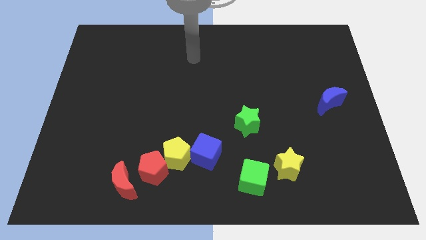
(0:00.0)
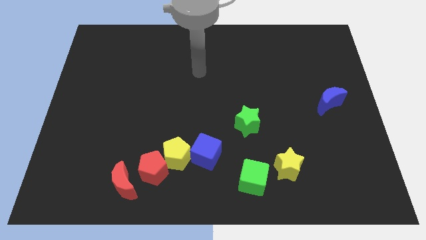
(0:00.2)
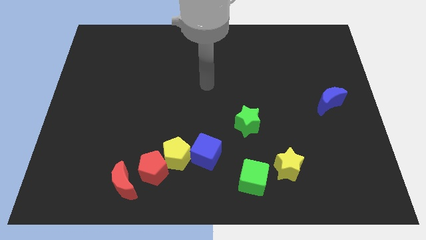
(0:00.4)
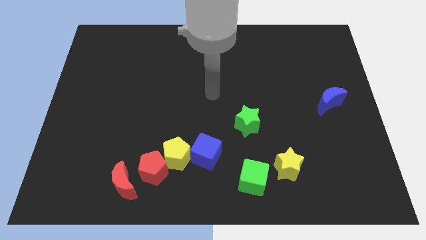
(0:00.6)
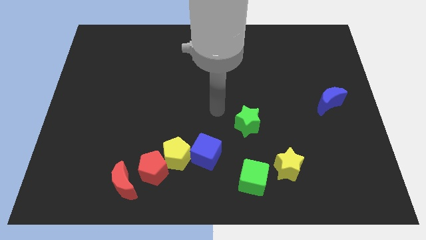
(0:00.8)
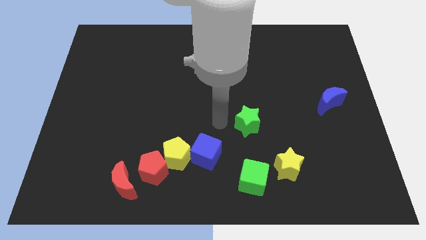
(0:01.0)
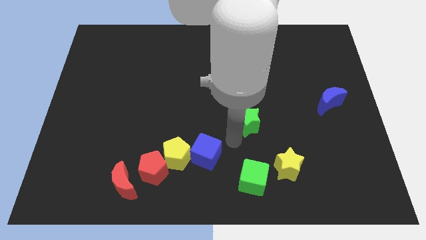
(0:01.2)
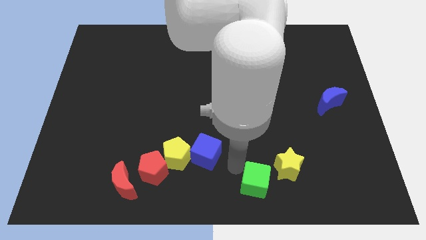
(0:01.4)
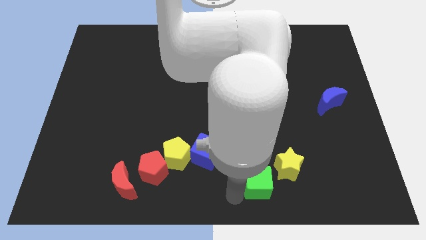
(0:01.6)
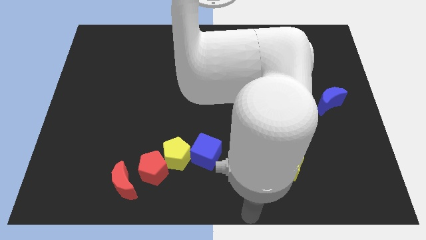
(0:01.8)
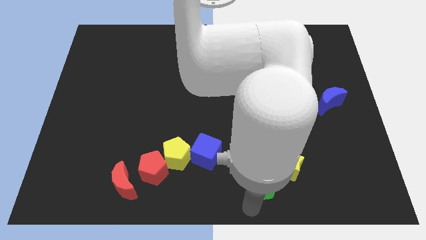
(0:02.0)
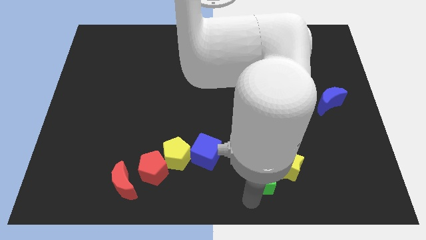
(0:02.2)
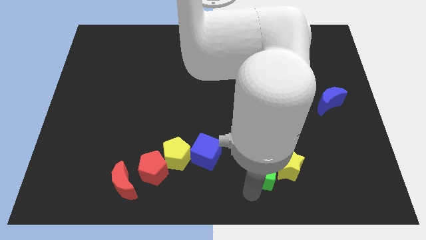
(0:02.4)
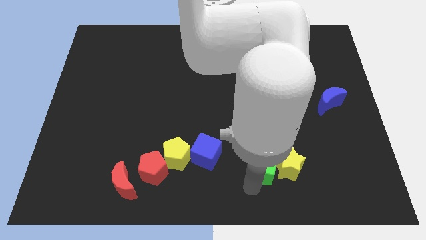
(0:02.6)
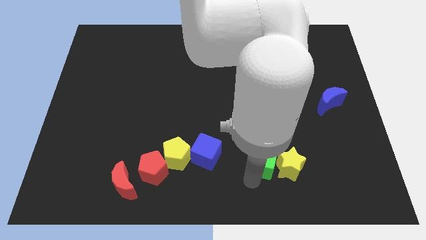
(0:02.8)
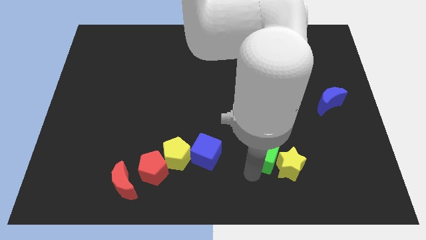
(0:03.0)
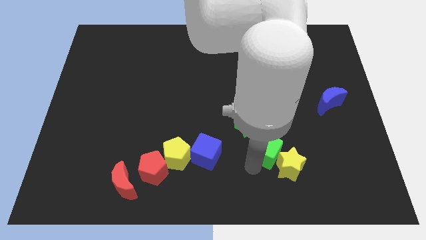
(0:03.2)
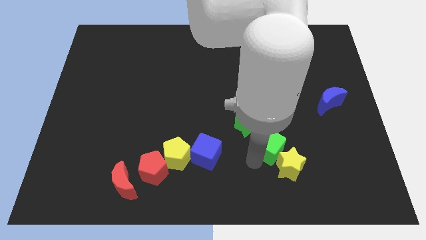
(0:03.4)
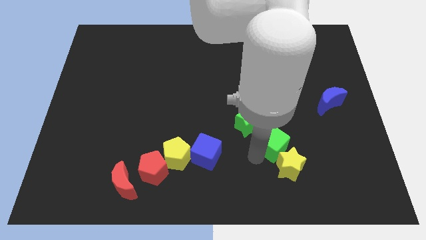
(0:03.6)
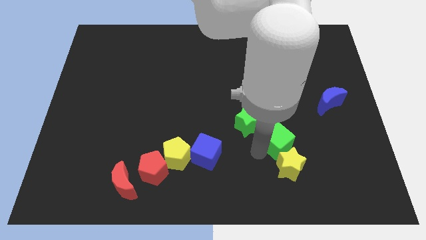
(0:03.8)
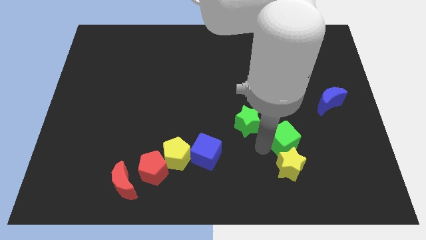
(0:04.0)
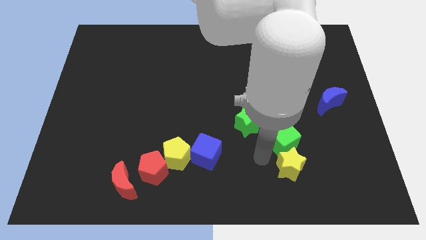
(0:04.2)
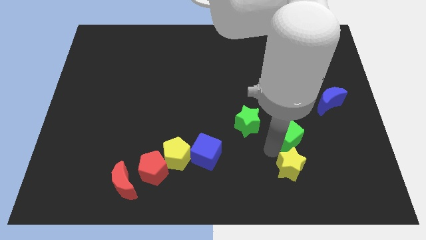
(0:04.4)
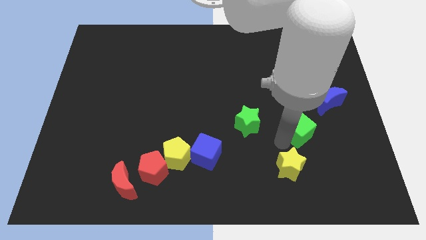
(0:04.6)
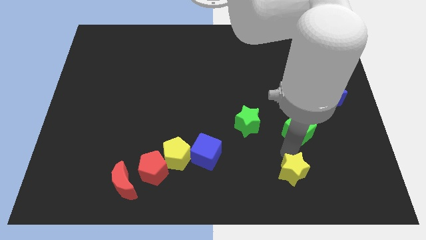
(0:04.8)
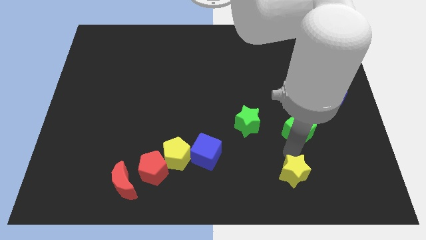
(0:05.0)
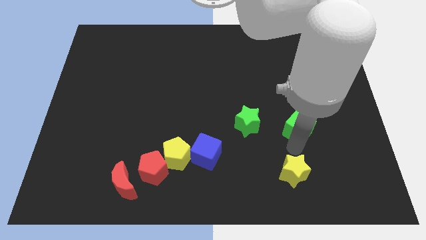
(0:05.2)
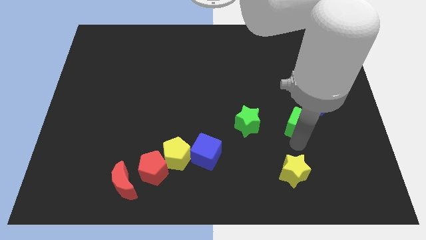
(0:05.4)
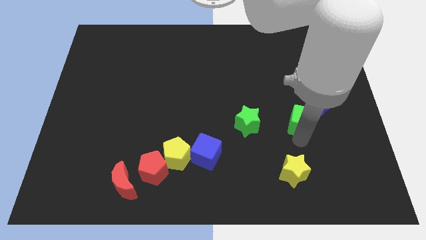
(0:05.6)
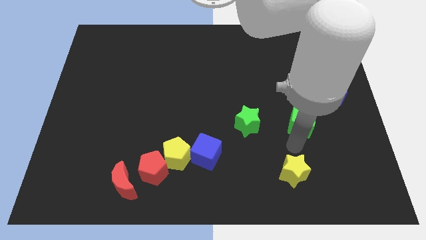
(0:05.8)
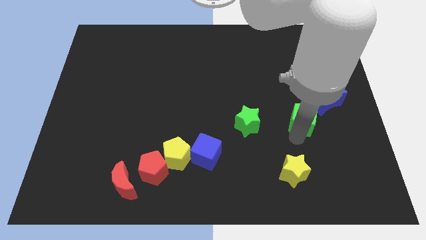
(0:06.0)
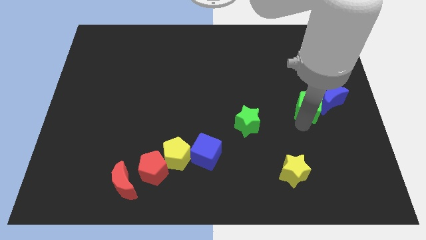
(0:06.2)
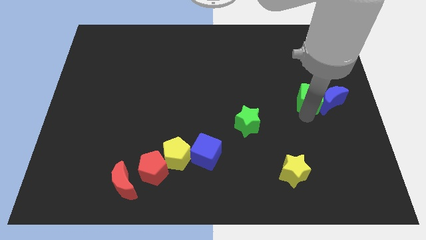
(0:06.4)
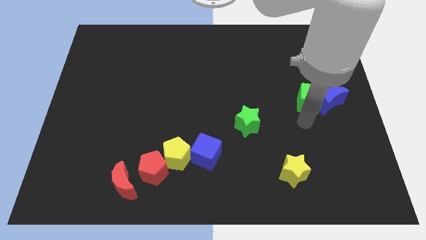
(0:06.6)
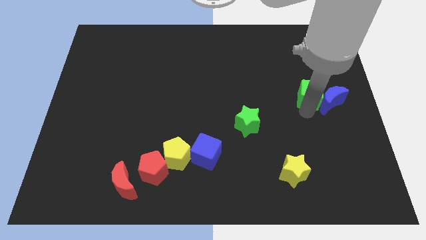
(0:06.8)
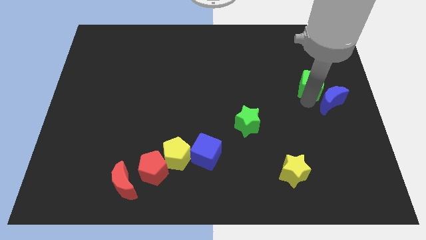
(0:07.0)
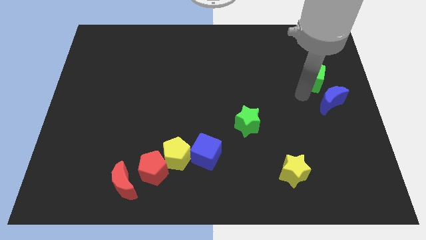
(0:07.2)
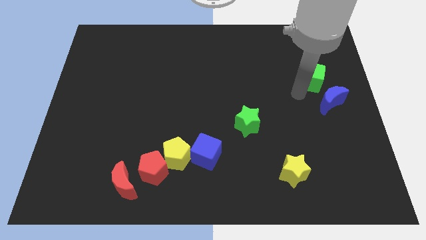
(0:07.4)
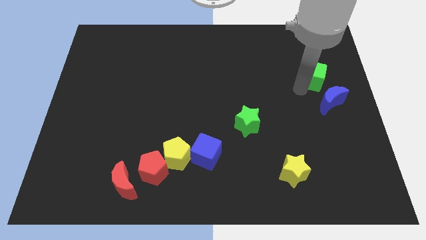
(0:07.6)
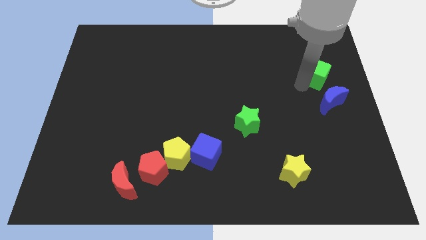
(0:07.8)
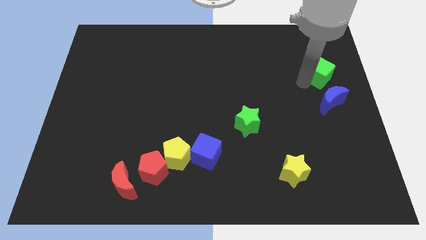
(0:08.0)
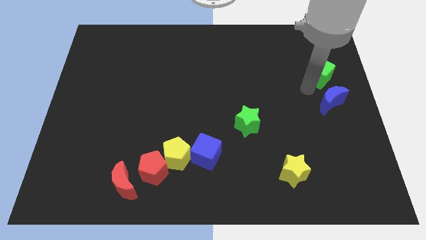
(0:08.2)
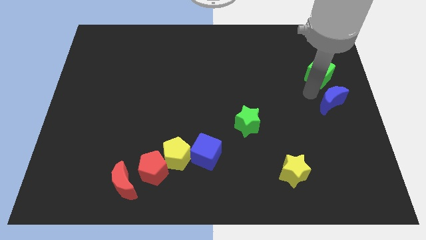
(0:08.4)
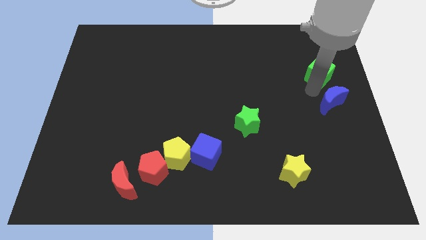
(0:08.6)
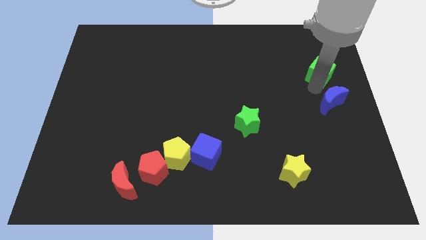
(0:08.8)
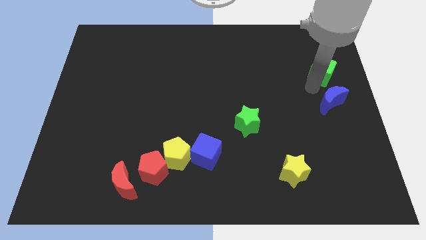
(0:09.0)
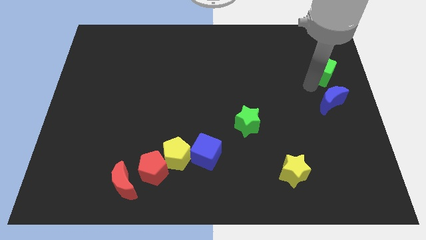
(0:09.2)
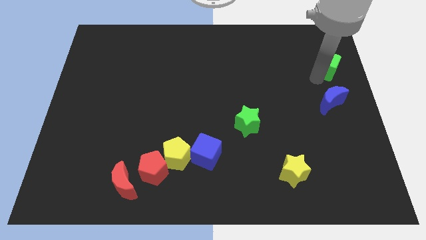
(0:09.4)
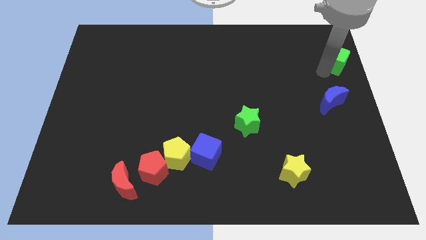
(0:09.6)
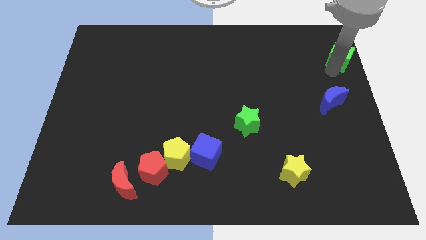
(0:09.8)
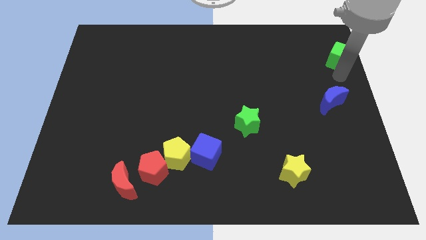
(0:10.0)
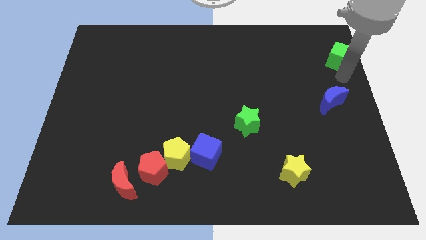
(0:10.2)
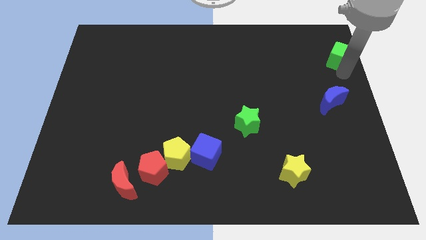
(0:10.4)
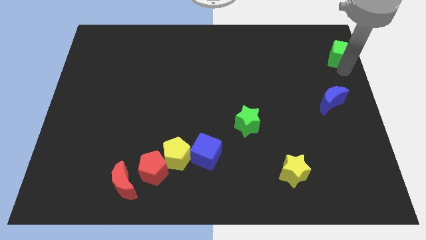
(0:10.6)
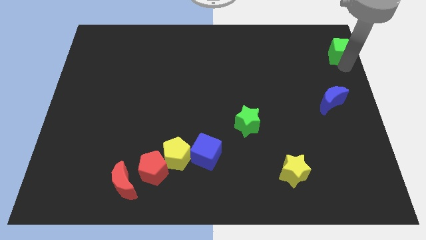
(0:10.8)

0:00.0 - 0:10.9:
slide the green cube to the top right

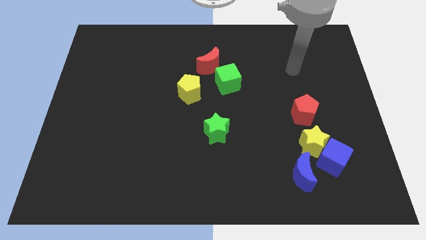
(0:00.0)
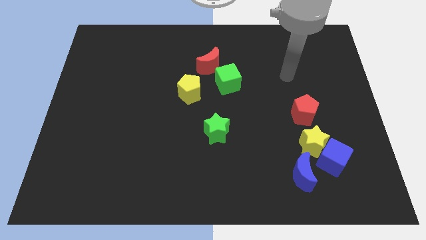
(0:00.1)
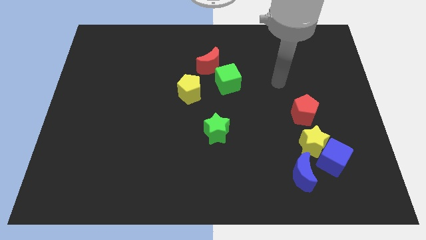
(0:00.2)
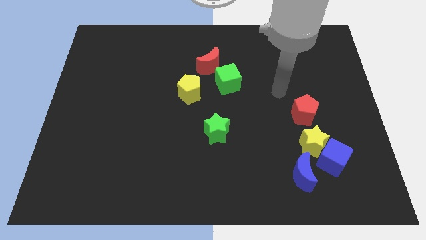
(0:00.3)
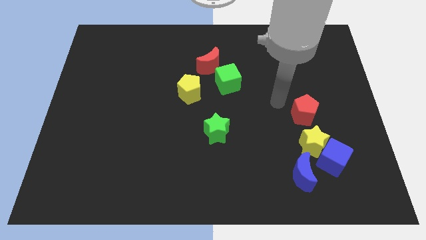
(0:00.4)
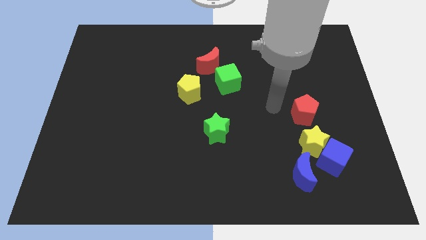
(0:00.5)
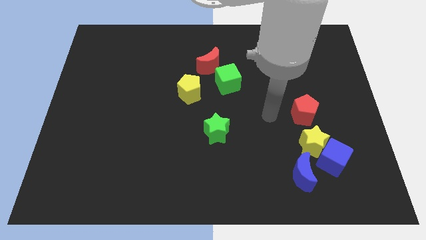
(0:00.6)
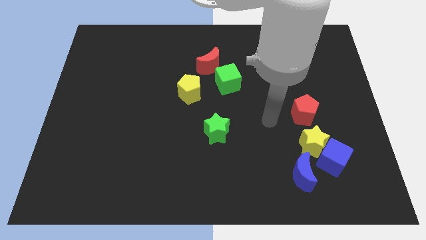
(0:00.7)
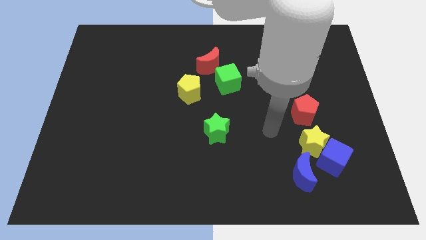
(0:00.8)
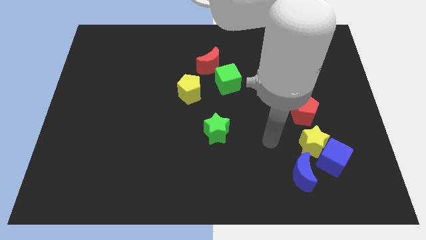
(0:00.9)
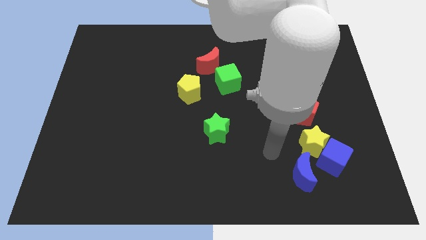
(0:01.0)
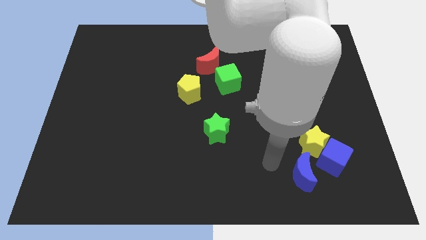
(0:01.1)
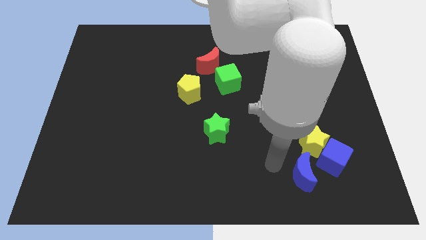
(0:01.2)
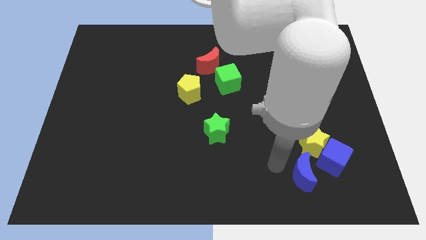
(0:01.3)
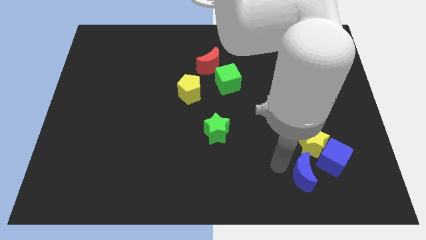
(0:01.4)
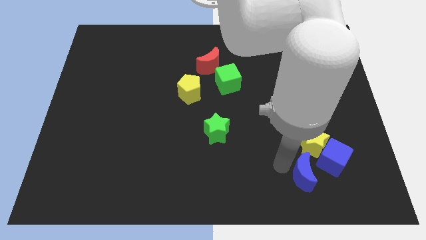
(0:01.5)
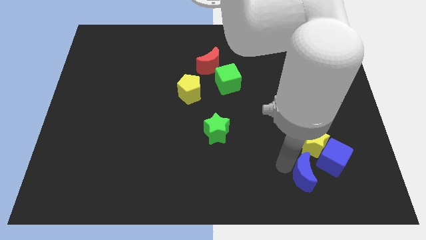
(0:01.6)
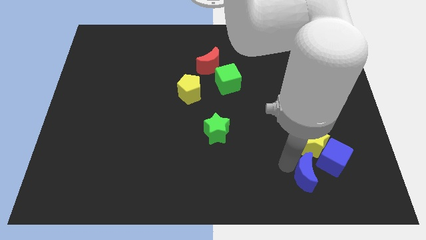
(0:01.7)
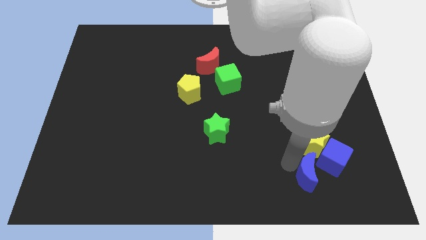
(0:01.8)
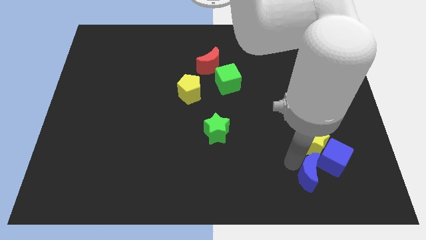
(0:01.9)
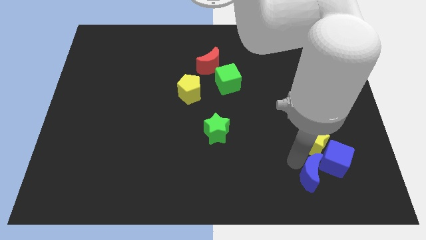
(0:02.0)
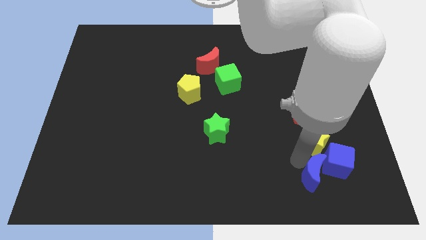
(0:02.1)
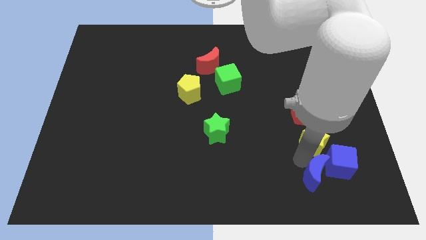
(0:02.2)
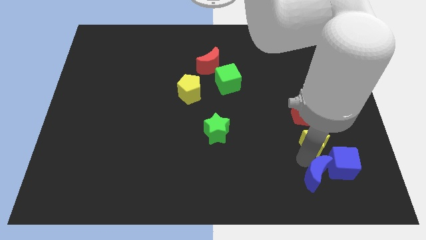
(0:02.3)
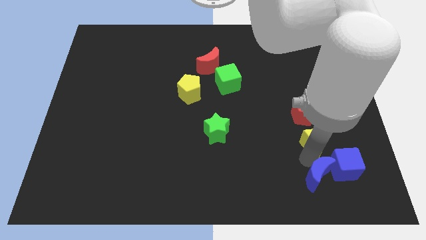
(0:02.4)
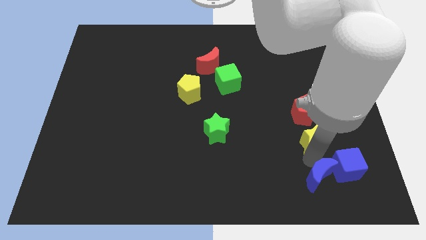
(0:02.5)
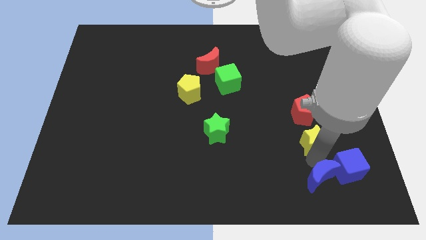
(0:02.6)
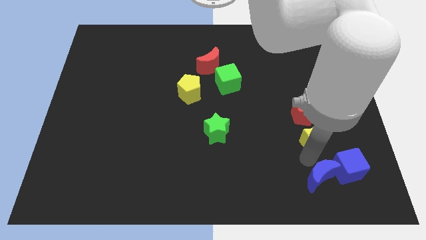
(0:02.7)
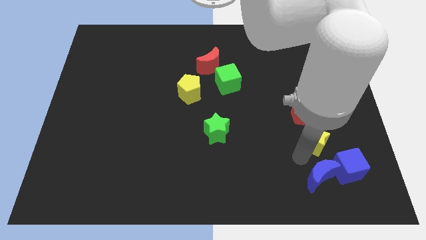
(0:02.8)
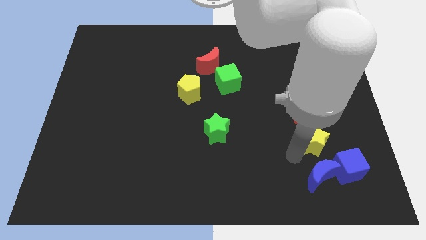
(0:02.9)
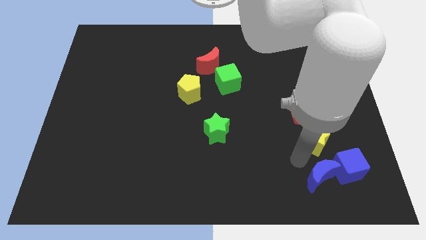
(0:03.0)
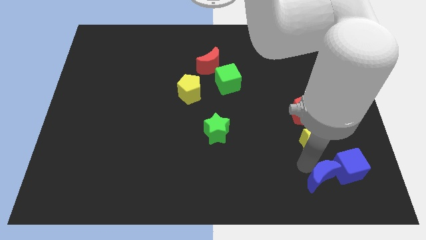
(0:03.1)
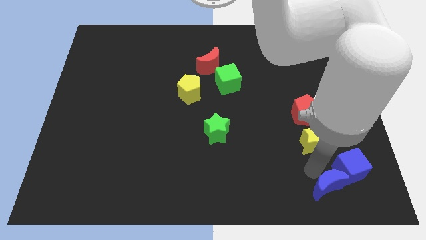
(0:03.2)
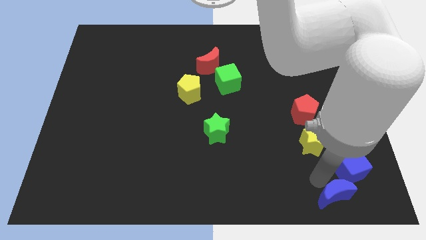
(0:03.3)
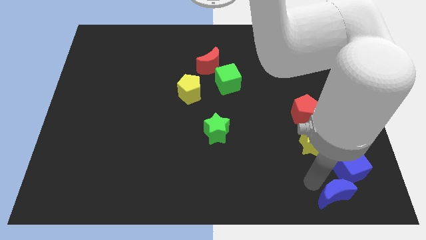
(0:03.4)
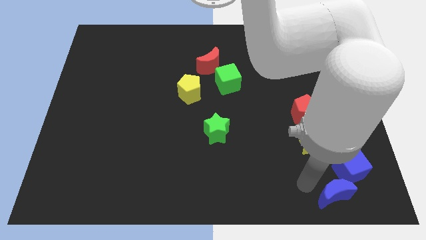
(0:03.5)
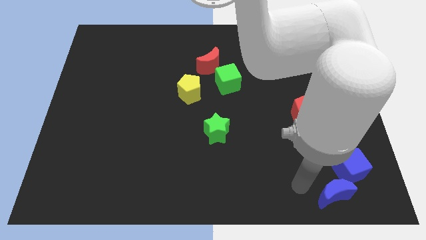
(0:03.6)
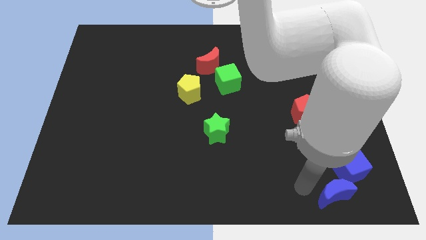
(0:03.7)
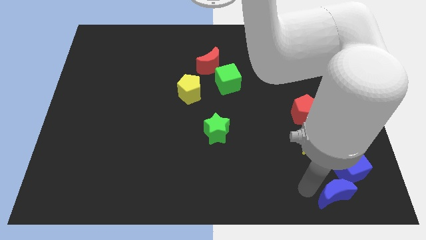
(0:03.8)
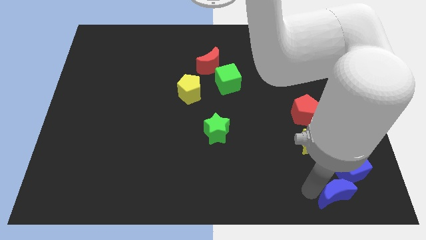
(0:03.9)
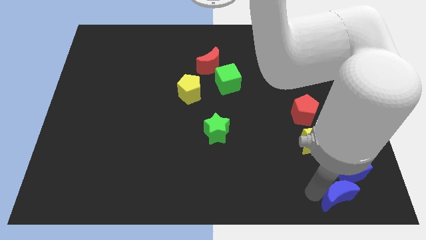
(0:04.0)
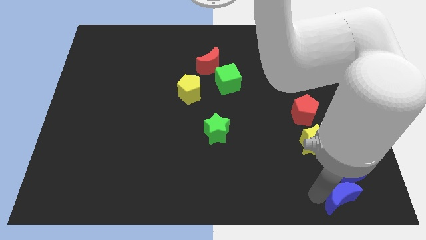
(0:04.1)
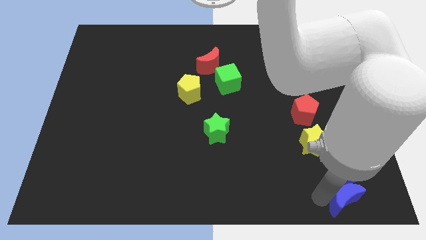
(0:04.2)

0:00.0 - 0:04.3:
move the blue moon to the bottom right corner
